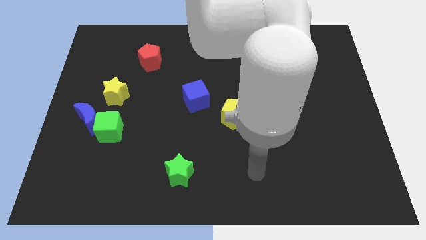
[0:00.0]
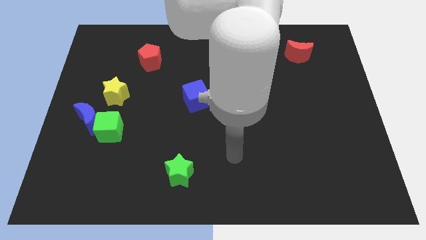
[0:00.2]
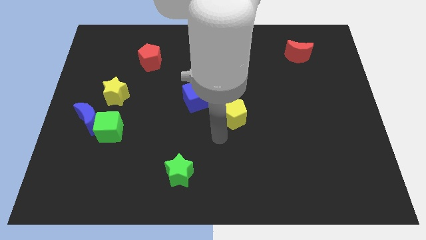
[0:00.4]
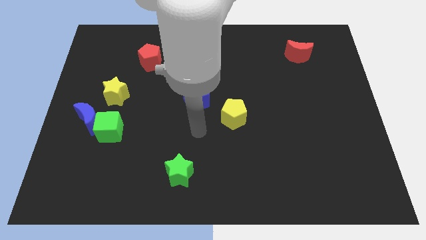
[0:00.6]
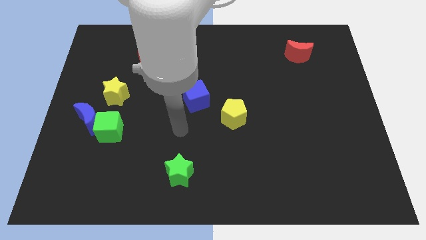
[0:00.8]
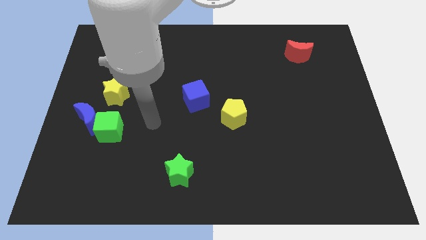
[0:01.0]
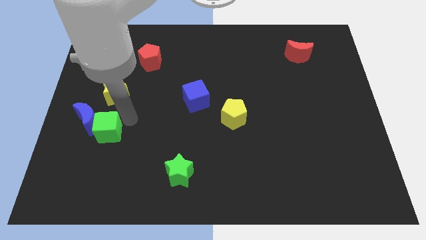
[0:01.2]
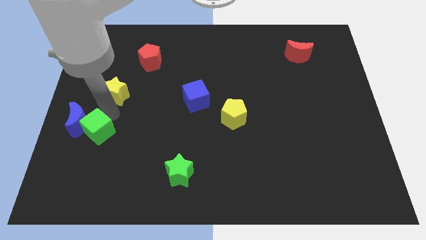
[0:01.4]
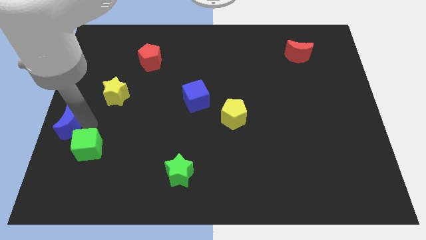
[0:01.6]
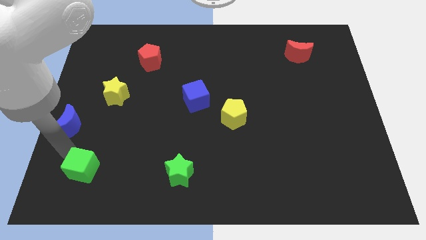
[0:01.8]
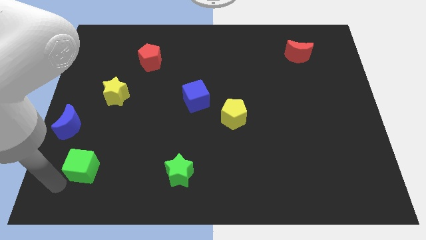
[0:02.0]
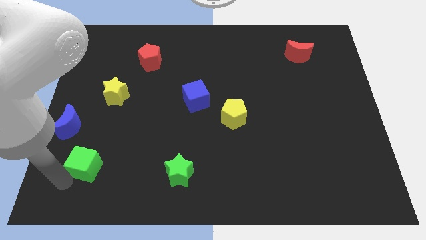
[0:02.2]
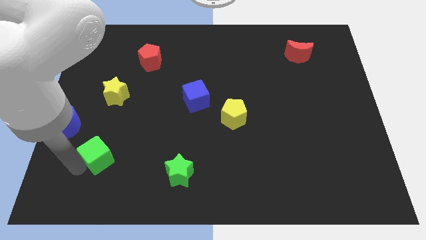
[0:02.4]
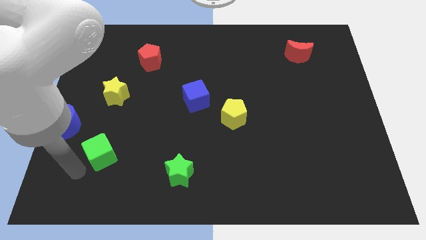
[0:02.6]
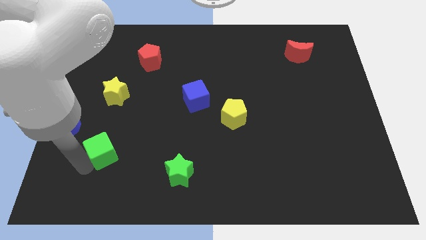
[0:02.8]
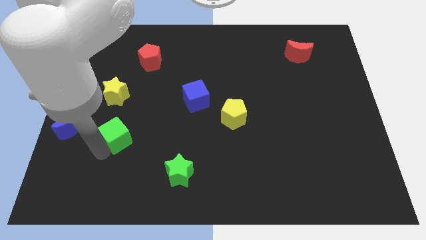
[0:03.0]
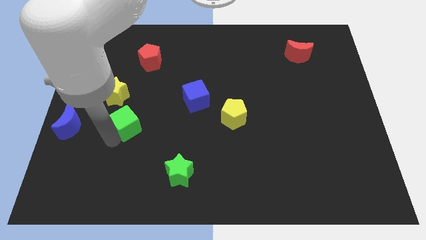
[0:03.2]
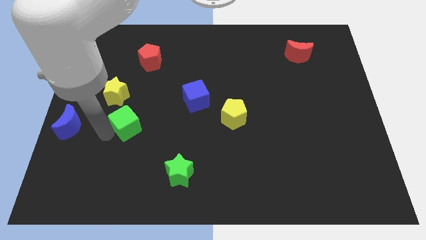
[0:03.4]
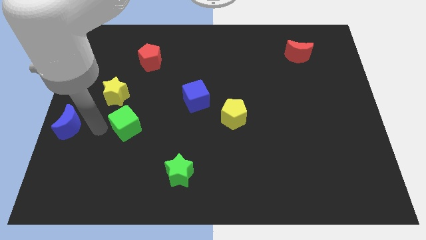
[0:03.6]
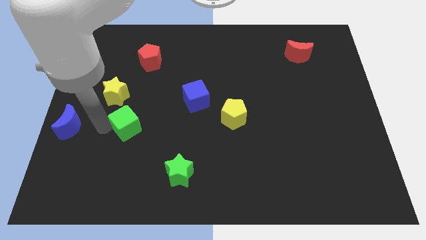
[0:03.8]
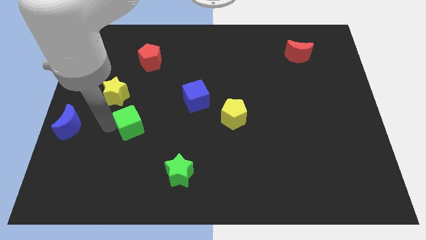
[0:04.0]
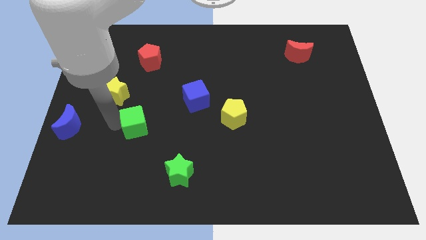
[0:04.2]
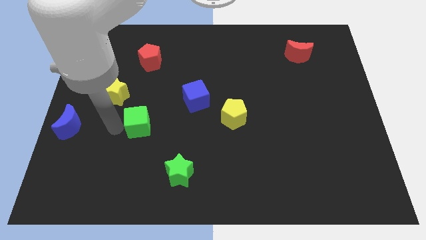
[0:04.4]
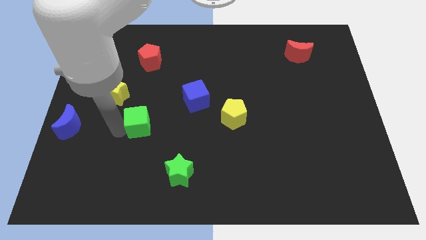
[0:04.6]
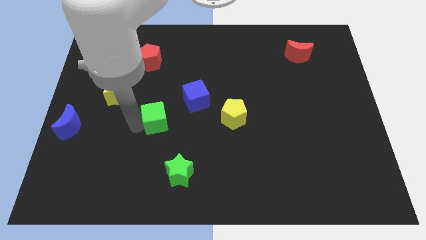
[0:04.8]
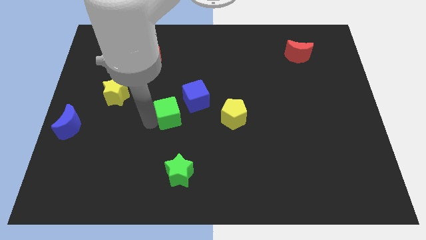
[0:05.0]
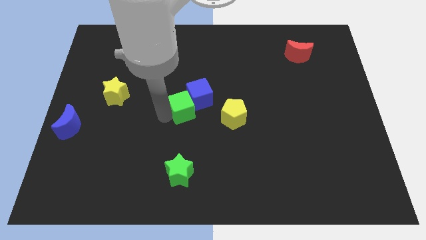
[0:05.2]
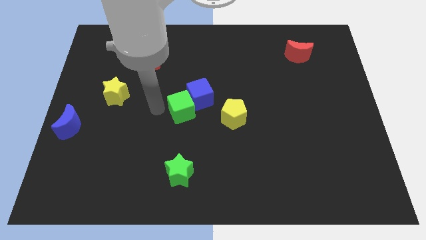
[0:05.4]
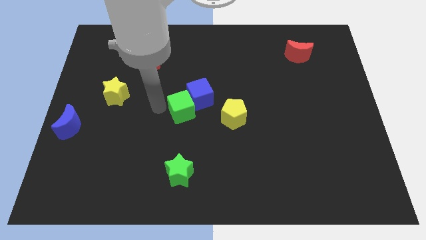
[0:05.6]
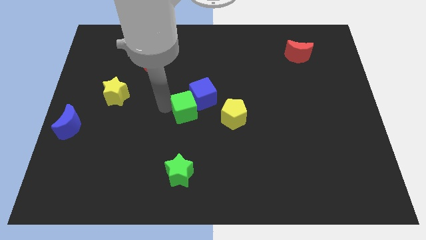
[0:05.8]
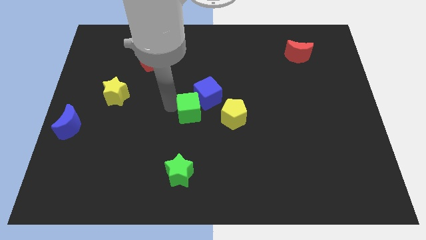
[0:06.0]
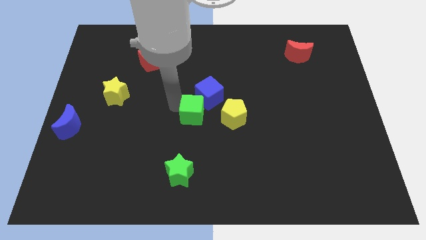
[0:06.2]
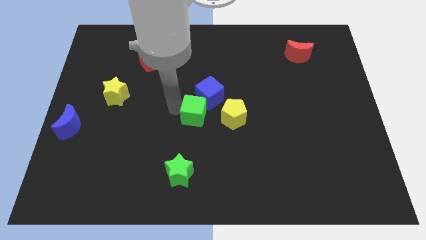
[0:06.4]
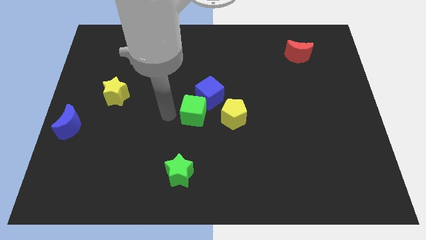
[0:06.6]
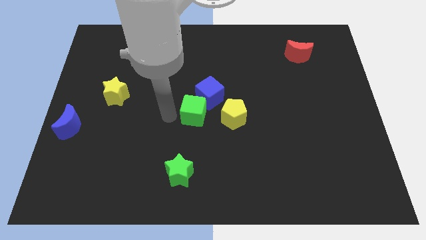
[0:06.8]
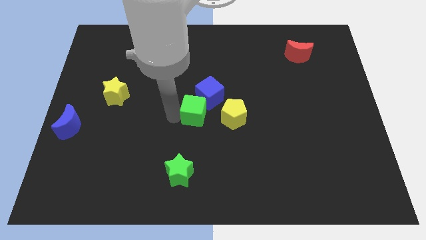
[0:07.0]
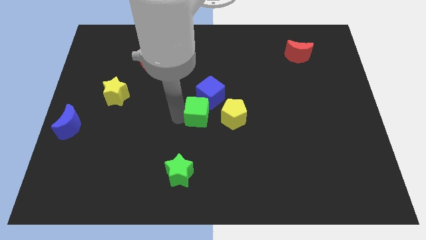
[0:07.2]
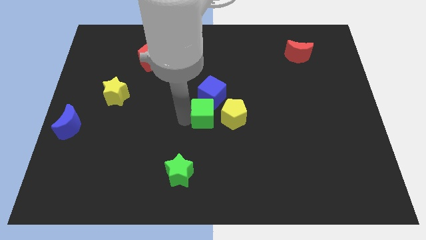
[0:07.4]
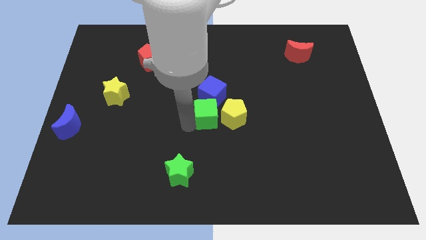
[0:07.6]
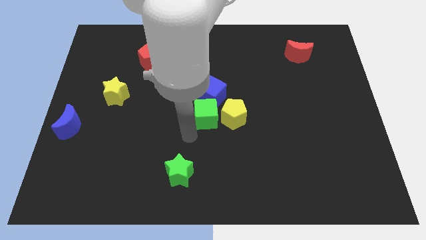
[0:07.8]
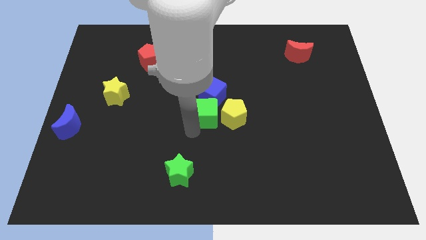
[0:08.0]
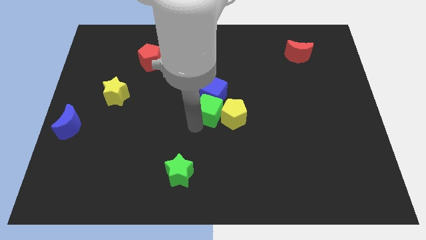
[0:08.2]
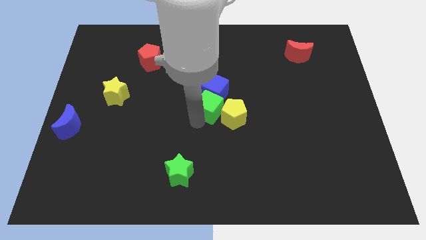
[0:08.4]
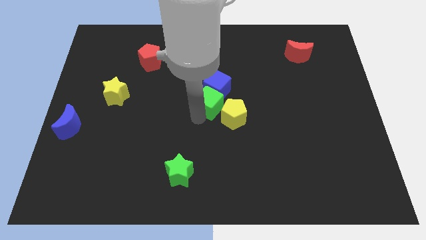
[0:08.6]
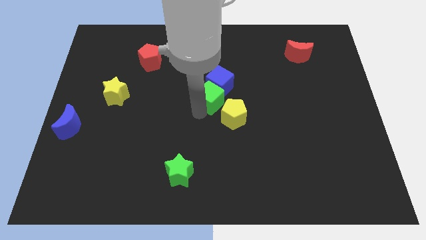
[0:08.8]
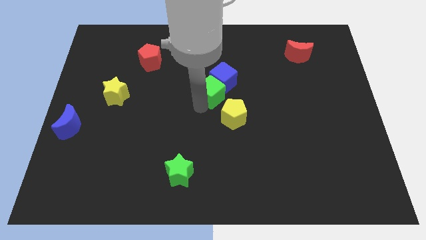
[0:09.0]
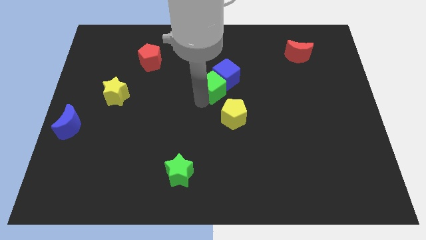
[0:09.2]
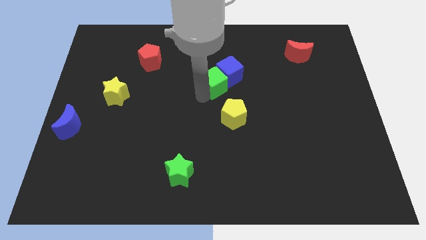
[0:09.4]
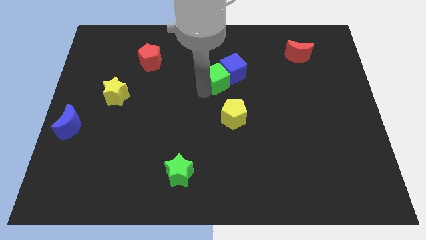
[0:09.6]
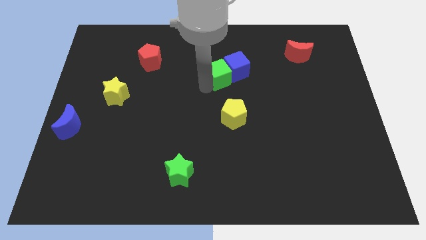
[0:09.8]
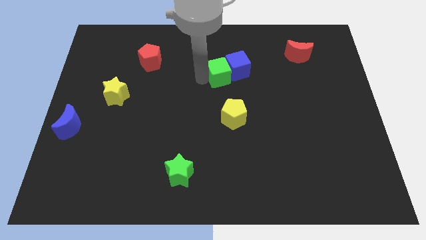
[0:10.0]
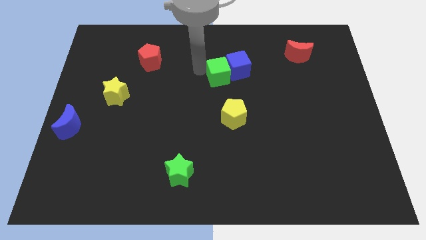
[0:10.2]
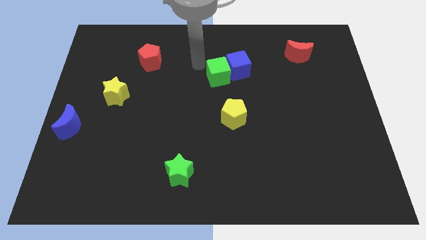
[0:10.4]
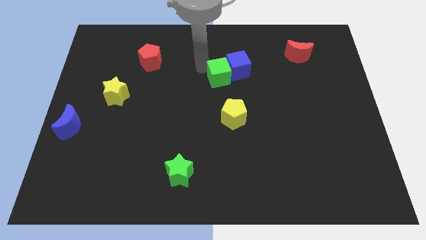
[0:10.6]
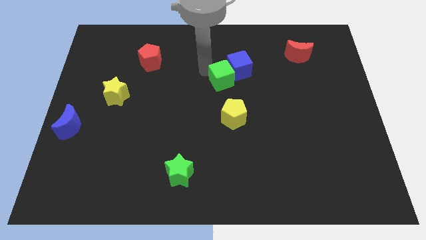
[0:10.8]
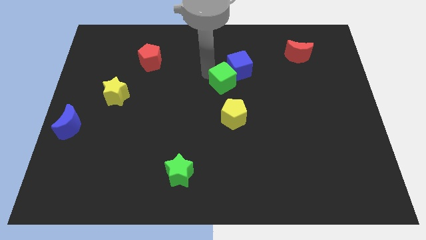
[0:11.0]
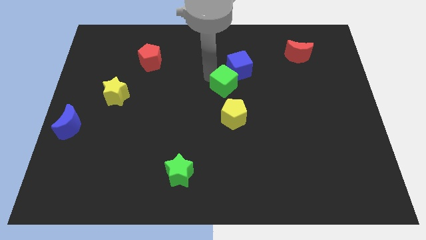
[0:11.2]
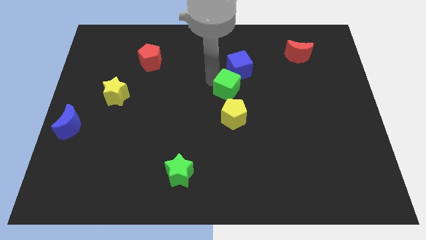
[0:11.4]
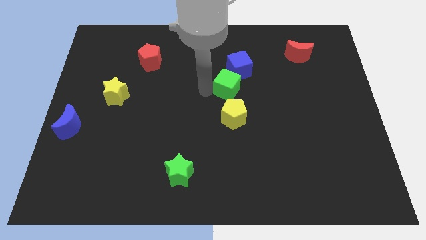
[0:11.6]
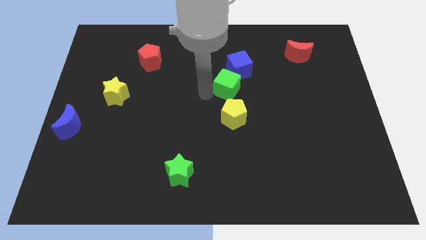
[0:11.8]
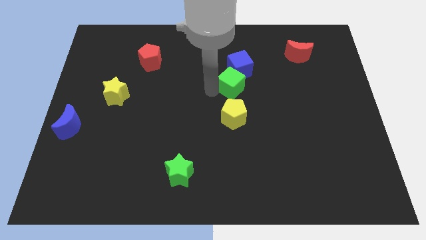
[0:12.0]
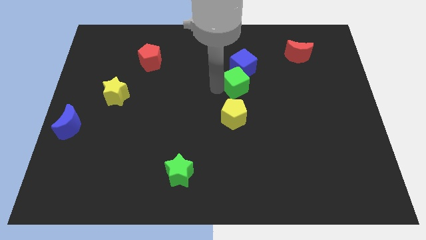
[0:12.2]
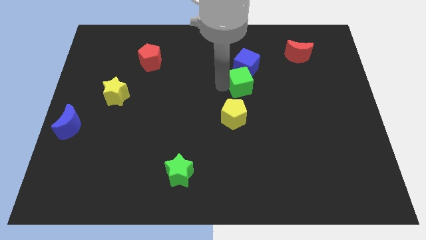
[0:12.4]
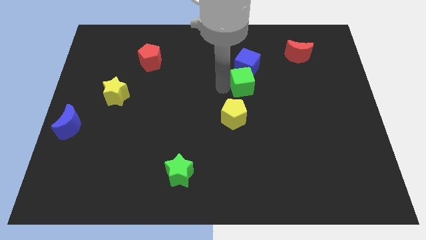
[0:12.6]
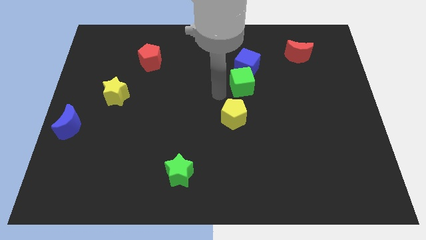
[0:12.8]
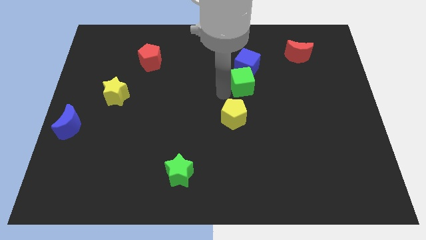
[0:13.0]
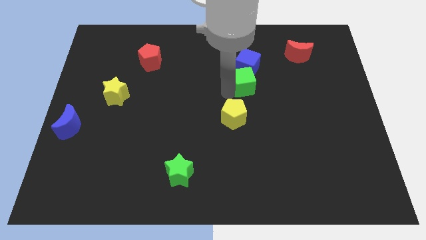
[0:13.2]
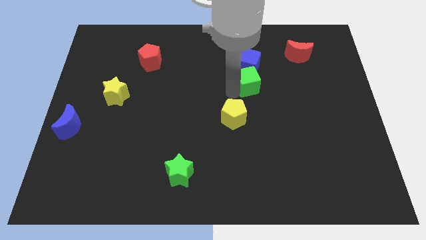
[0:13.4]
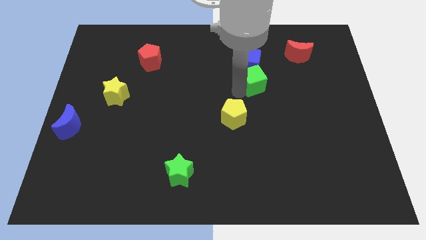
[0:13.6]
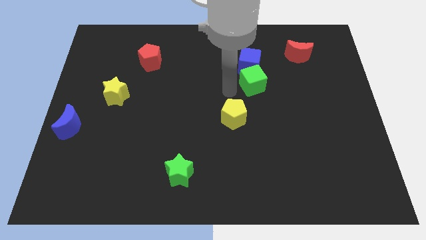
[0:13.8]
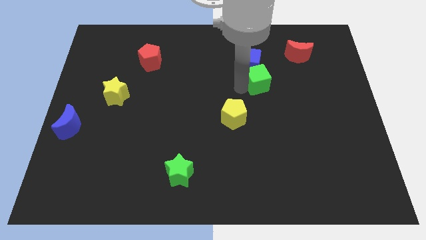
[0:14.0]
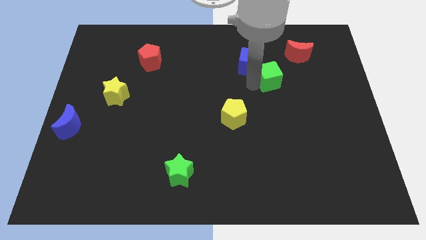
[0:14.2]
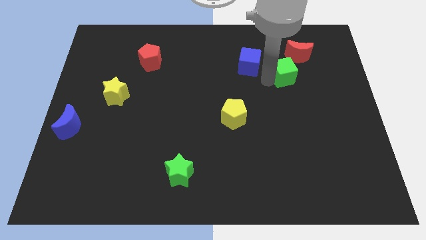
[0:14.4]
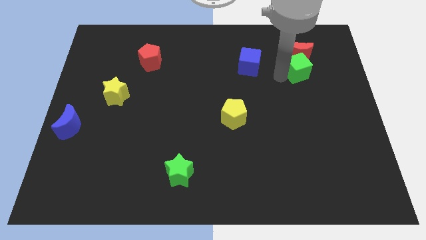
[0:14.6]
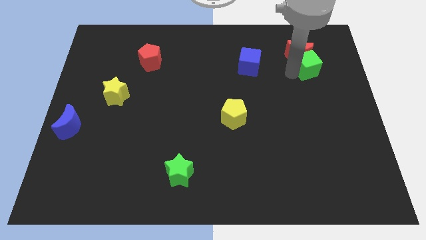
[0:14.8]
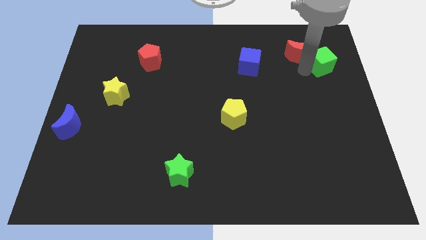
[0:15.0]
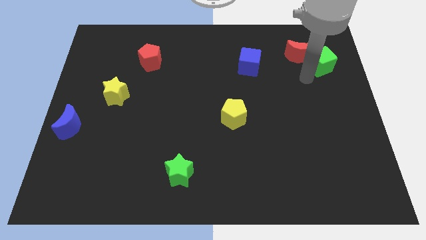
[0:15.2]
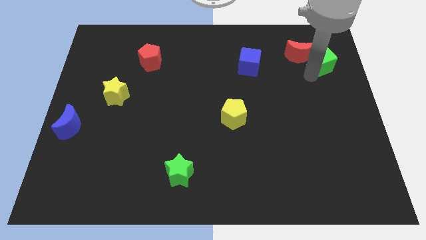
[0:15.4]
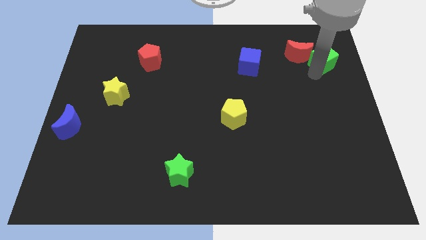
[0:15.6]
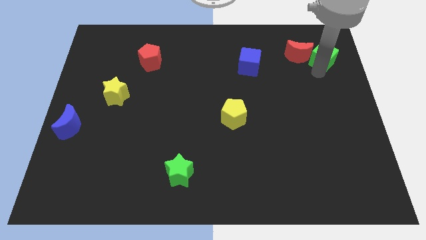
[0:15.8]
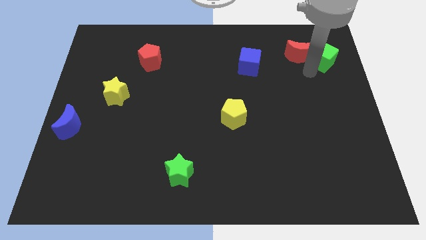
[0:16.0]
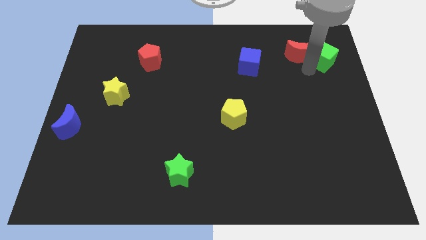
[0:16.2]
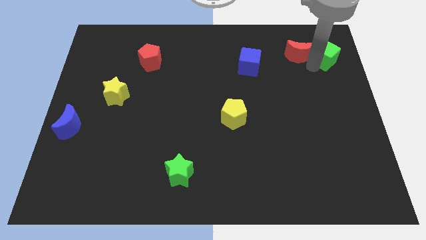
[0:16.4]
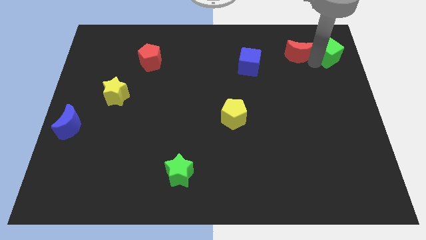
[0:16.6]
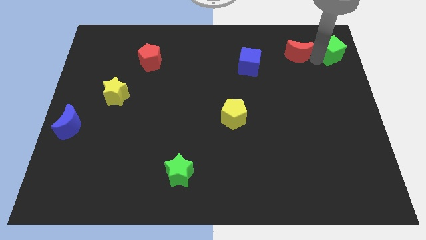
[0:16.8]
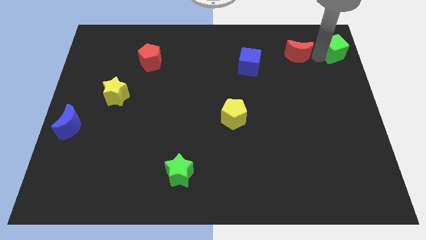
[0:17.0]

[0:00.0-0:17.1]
move the green cube to the top right
